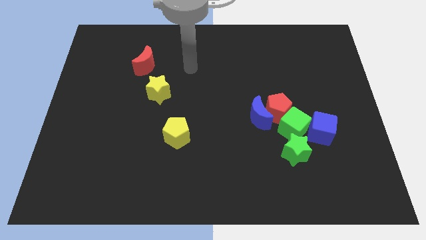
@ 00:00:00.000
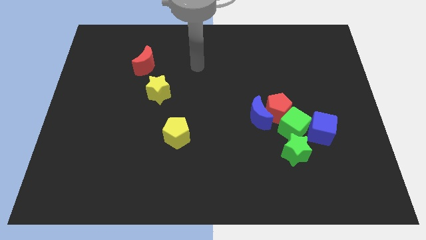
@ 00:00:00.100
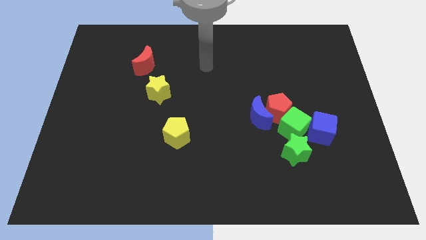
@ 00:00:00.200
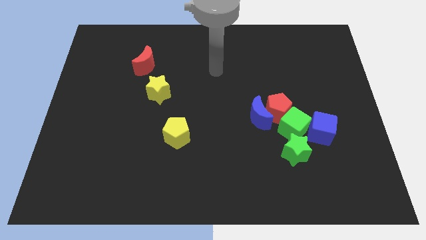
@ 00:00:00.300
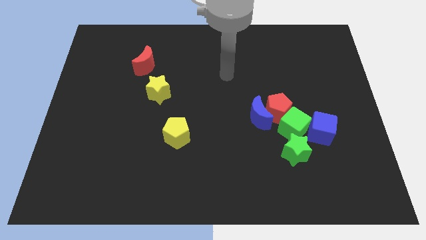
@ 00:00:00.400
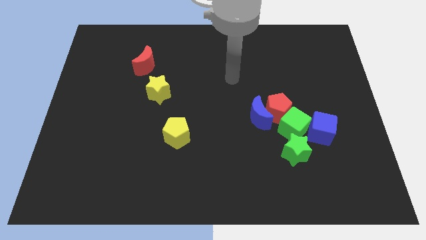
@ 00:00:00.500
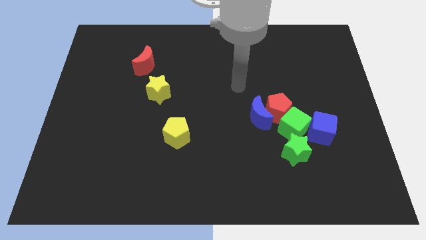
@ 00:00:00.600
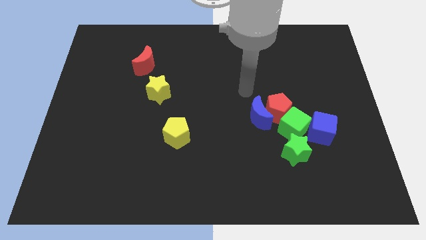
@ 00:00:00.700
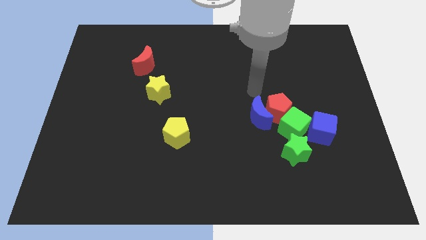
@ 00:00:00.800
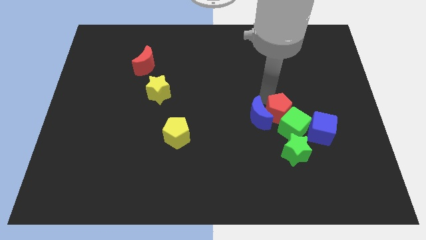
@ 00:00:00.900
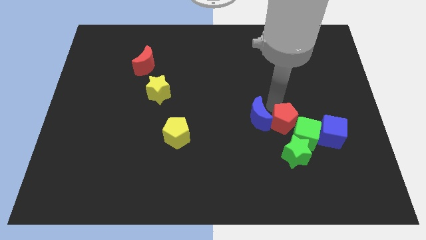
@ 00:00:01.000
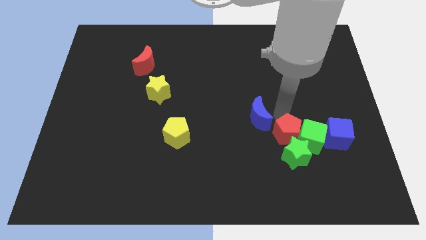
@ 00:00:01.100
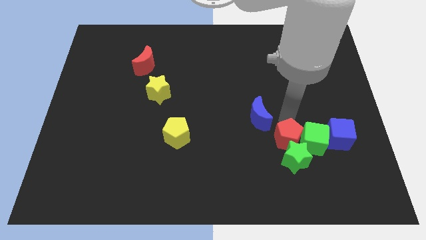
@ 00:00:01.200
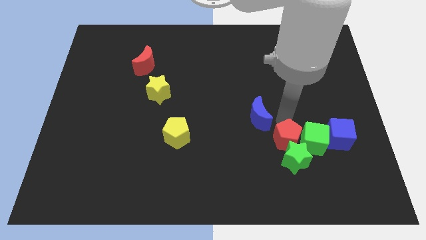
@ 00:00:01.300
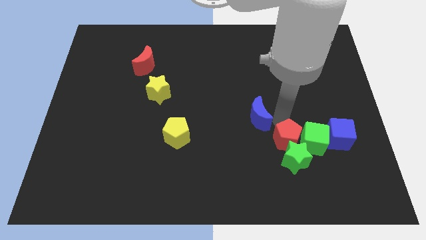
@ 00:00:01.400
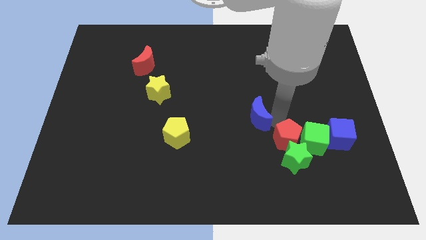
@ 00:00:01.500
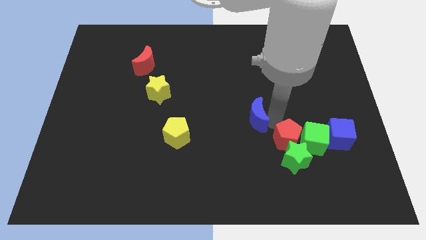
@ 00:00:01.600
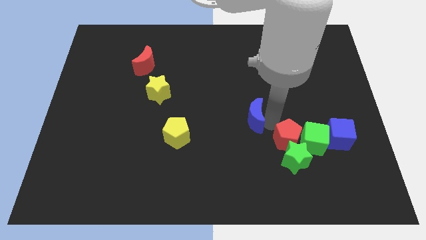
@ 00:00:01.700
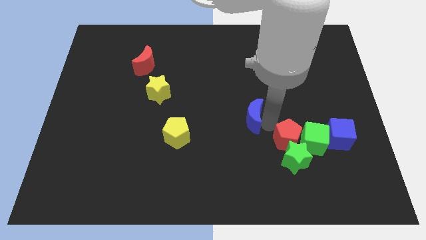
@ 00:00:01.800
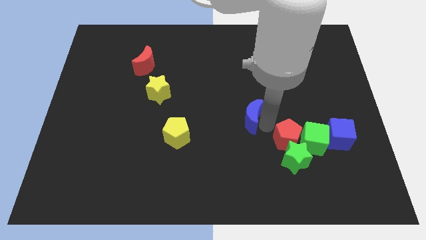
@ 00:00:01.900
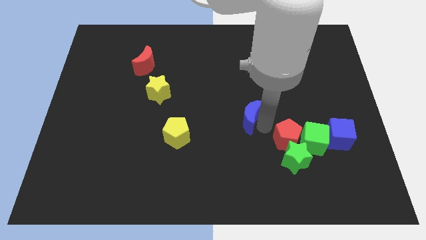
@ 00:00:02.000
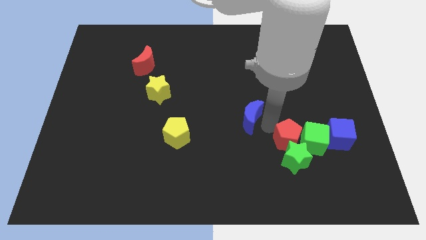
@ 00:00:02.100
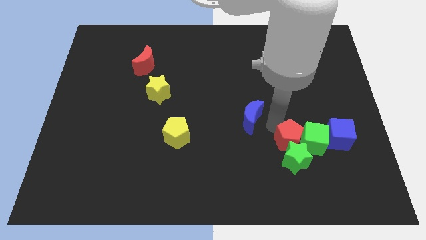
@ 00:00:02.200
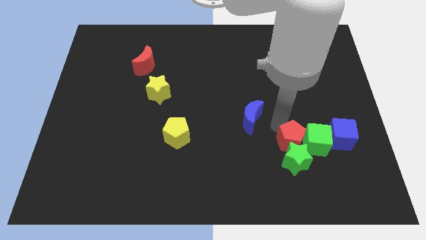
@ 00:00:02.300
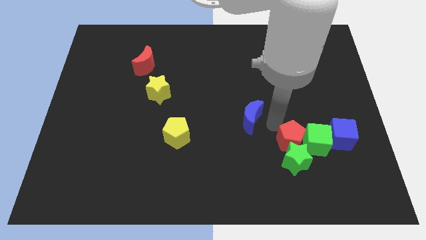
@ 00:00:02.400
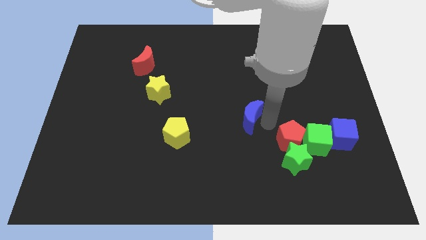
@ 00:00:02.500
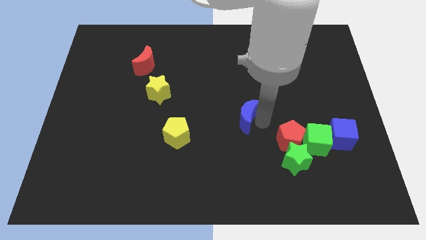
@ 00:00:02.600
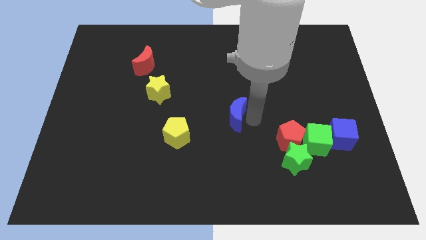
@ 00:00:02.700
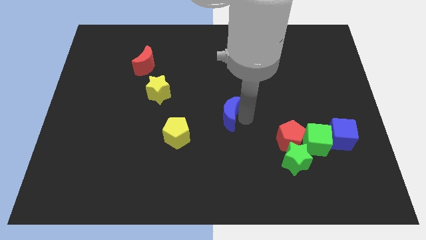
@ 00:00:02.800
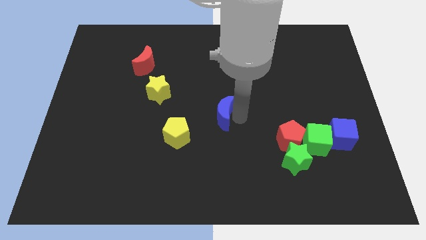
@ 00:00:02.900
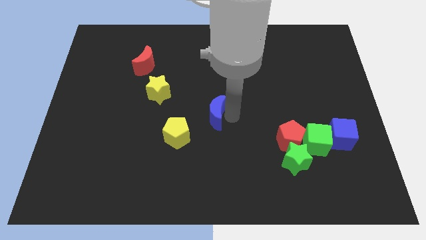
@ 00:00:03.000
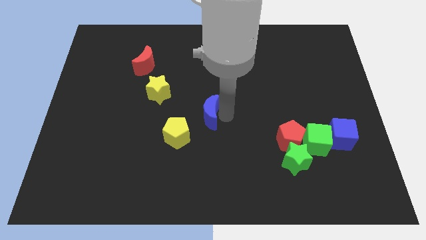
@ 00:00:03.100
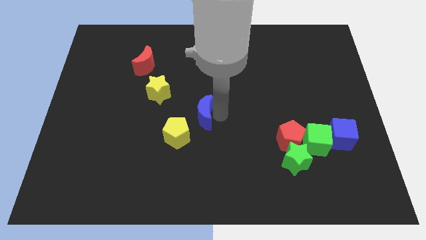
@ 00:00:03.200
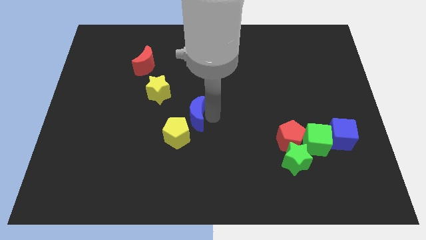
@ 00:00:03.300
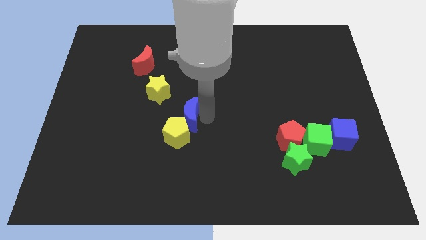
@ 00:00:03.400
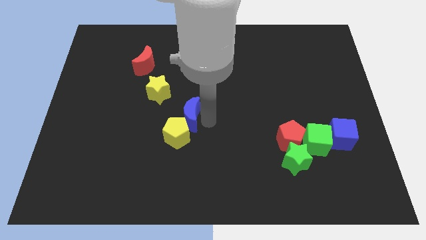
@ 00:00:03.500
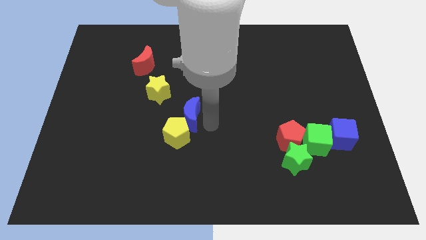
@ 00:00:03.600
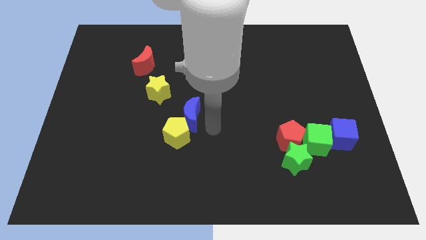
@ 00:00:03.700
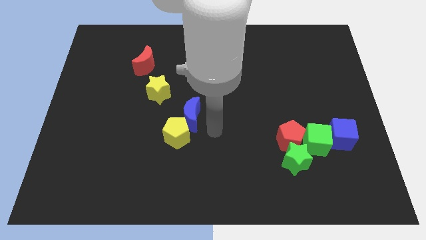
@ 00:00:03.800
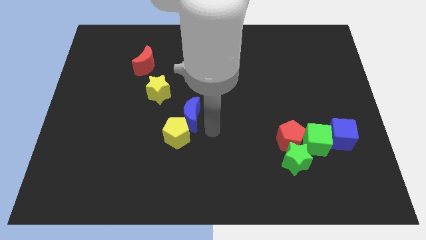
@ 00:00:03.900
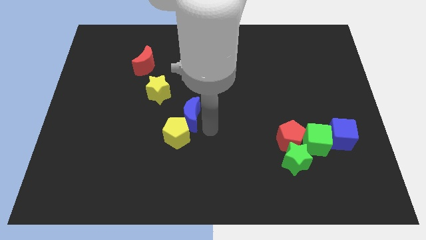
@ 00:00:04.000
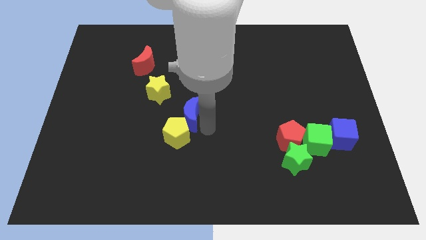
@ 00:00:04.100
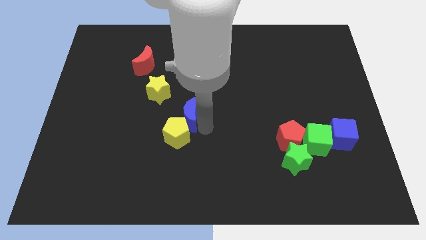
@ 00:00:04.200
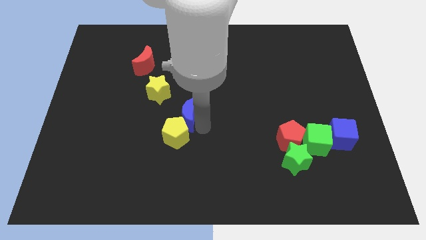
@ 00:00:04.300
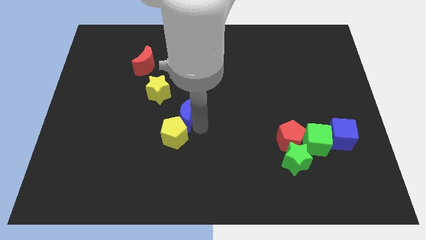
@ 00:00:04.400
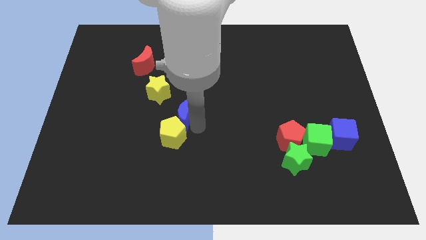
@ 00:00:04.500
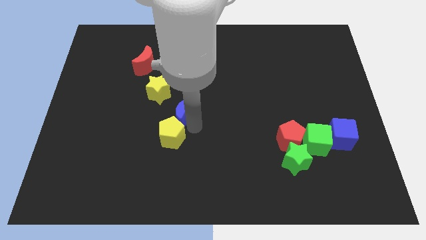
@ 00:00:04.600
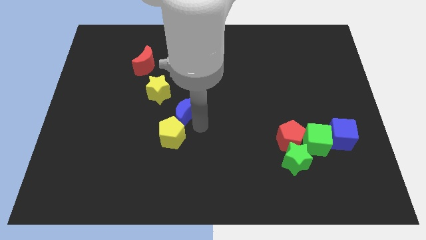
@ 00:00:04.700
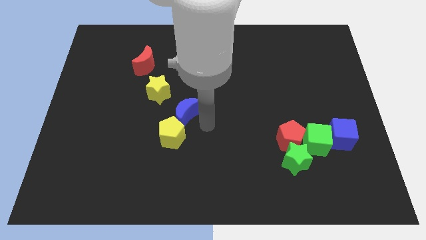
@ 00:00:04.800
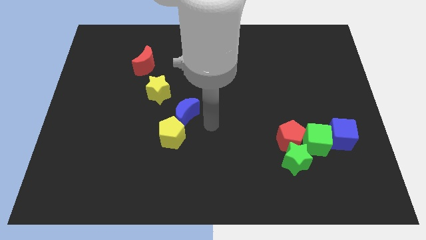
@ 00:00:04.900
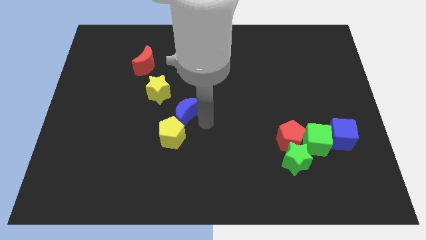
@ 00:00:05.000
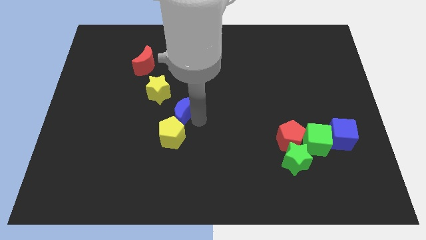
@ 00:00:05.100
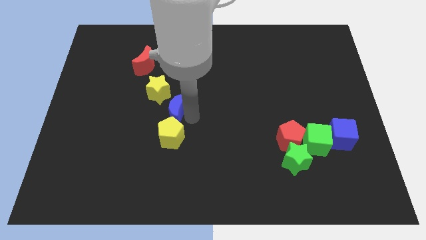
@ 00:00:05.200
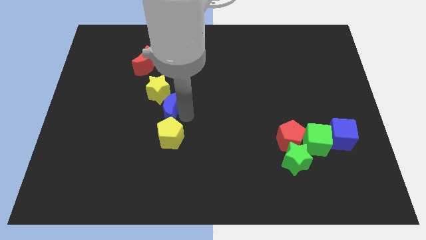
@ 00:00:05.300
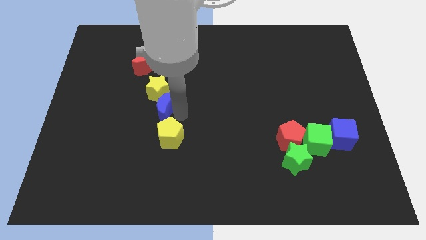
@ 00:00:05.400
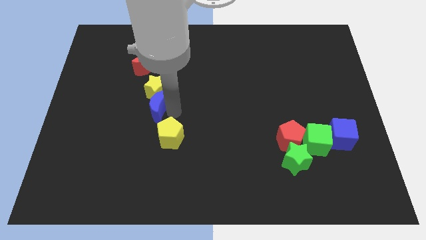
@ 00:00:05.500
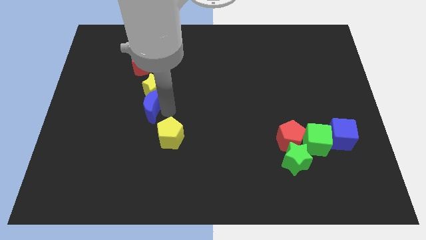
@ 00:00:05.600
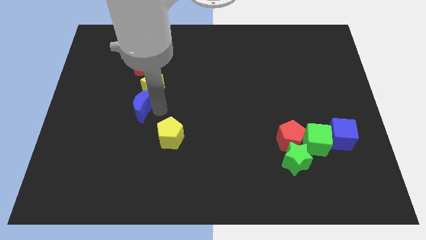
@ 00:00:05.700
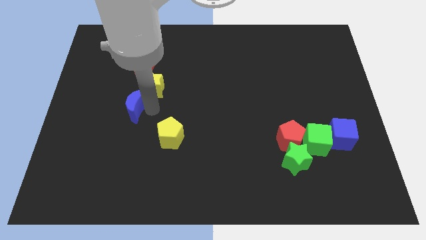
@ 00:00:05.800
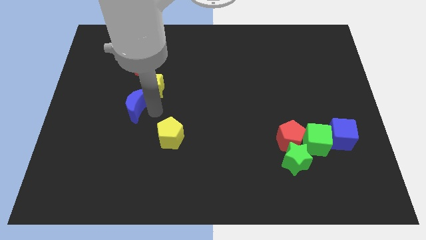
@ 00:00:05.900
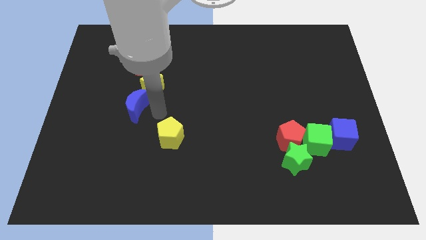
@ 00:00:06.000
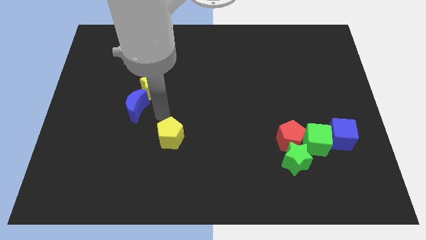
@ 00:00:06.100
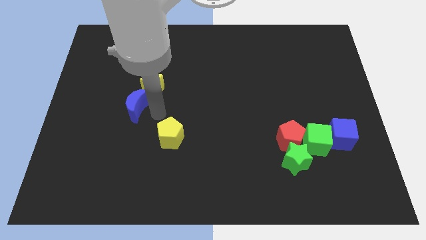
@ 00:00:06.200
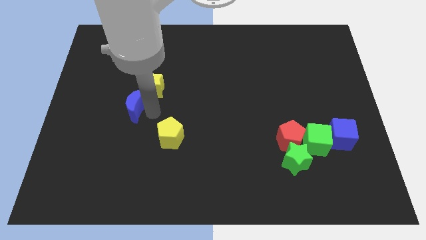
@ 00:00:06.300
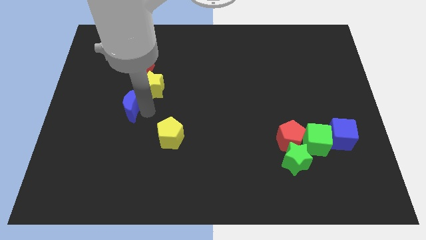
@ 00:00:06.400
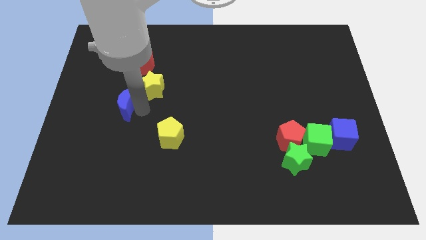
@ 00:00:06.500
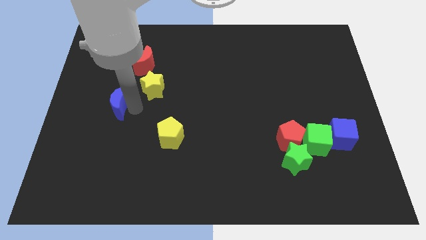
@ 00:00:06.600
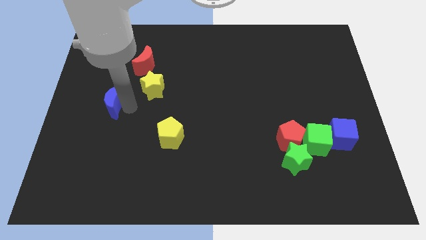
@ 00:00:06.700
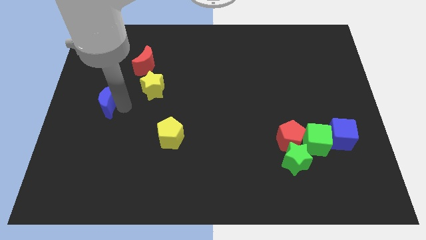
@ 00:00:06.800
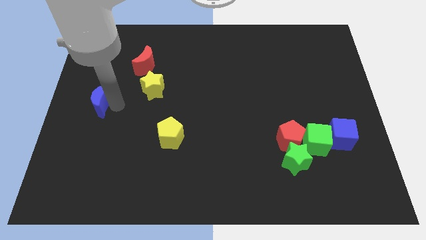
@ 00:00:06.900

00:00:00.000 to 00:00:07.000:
push the blue moon to the center left
